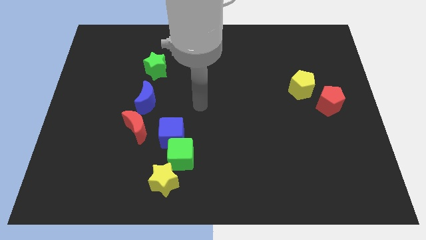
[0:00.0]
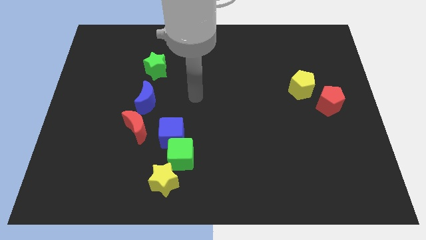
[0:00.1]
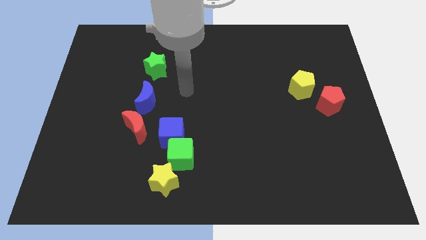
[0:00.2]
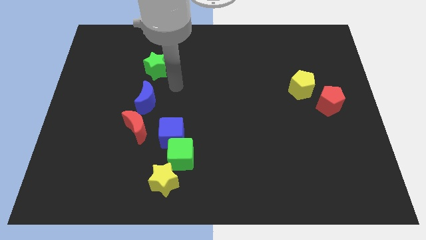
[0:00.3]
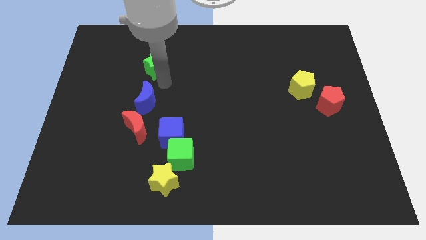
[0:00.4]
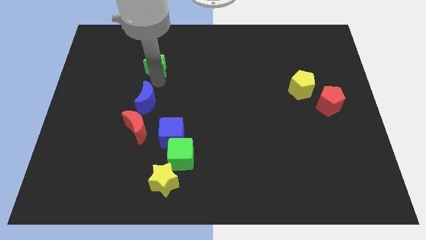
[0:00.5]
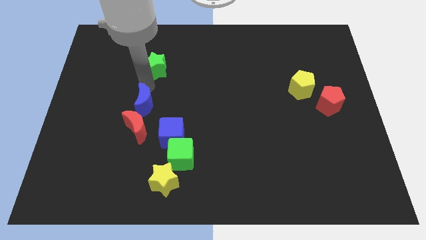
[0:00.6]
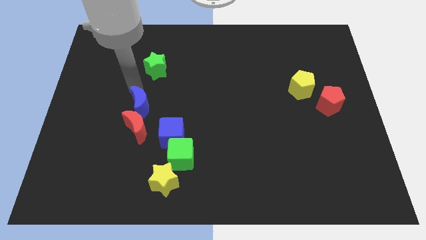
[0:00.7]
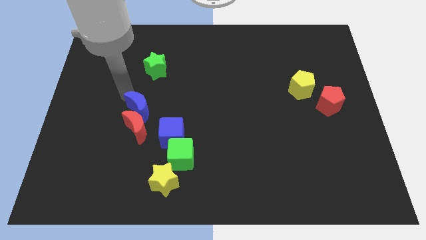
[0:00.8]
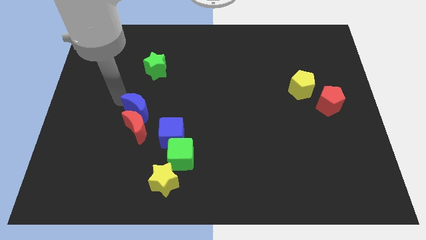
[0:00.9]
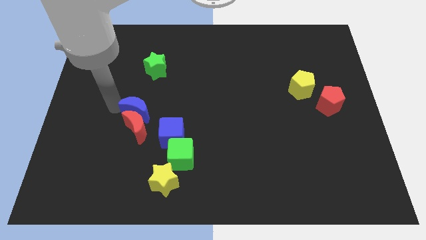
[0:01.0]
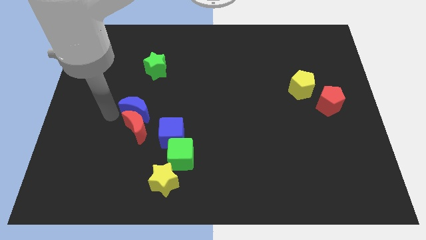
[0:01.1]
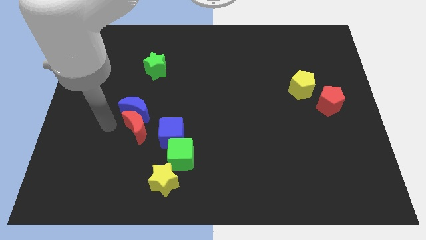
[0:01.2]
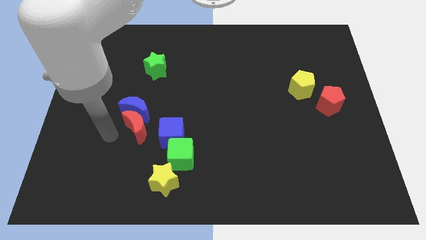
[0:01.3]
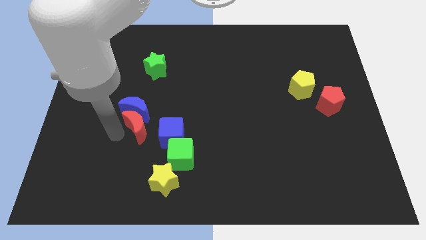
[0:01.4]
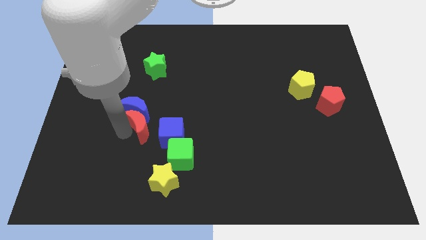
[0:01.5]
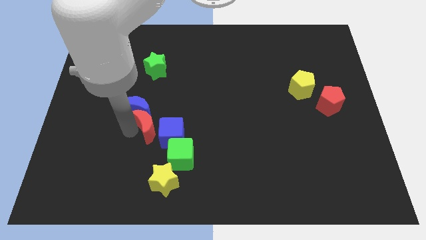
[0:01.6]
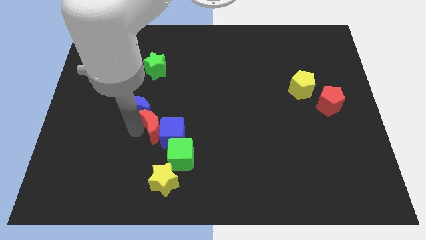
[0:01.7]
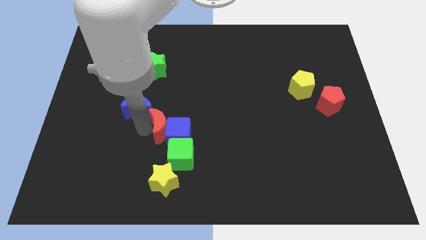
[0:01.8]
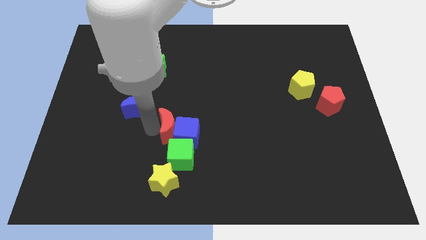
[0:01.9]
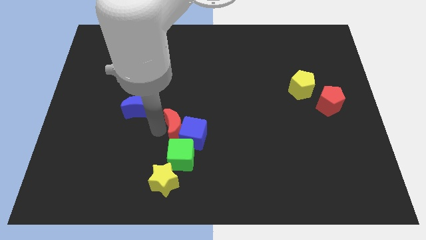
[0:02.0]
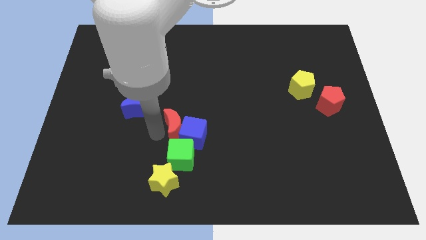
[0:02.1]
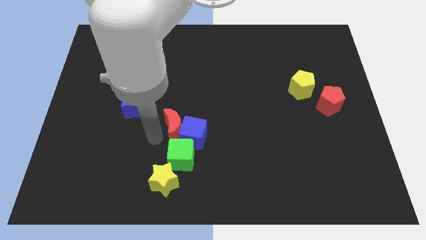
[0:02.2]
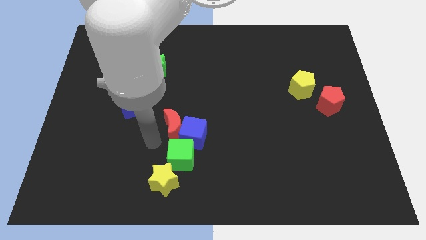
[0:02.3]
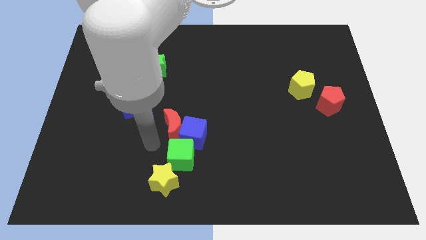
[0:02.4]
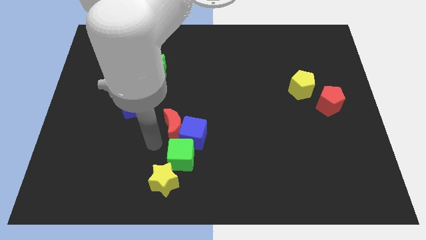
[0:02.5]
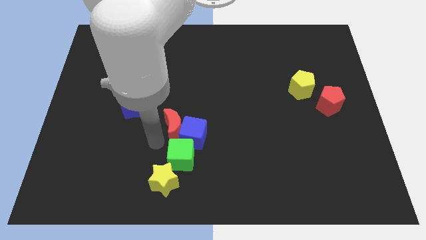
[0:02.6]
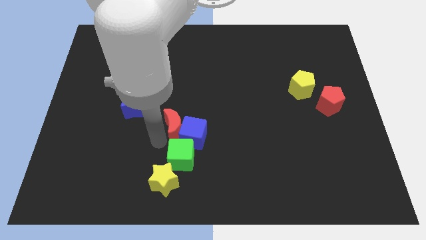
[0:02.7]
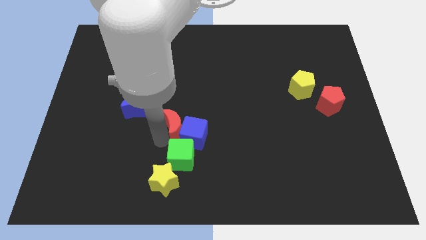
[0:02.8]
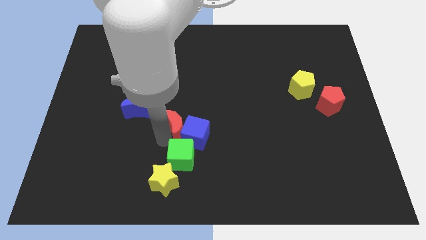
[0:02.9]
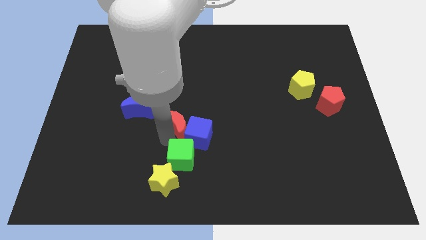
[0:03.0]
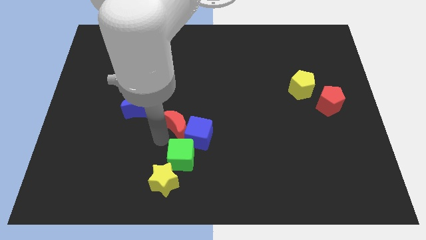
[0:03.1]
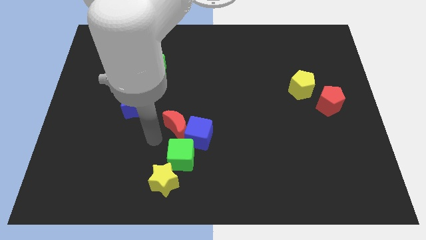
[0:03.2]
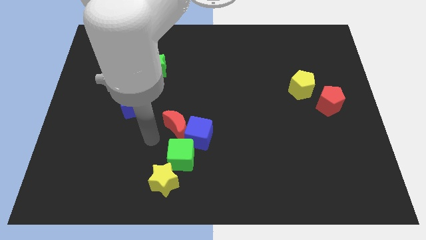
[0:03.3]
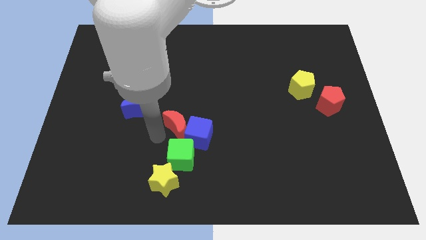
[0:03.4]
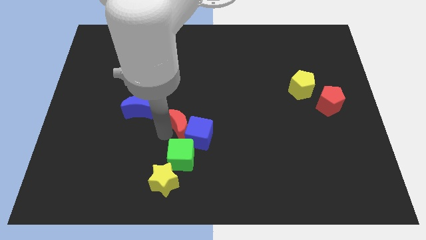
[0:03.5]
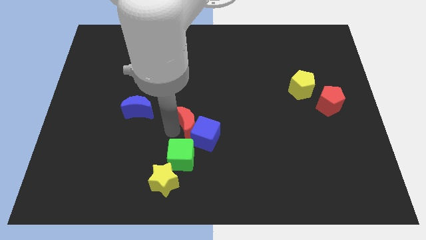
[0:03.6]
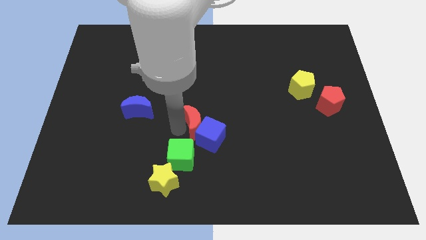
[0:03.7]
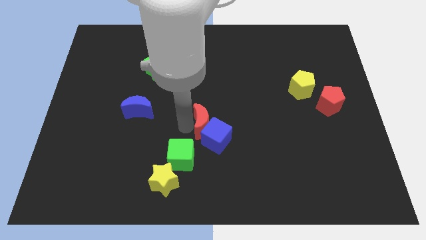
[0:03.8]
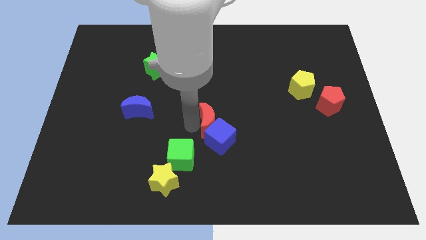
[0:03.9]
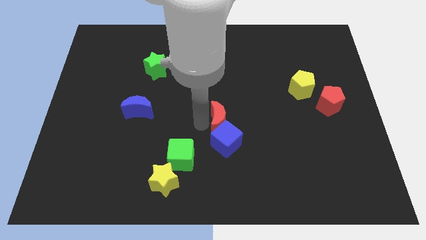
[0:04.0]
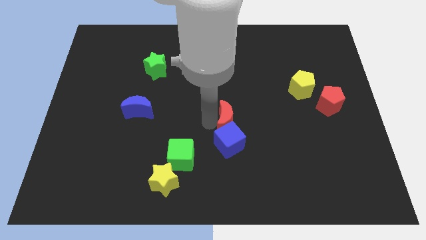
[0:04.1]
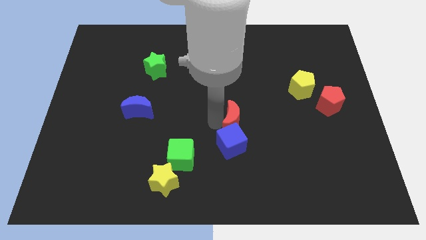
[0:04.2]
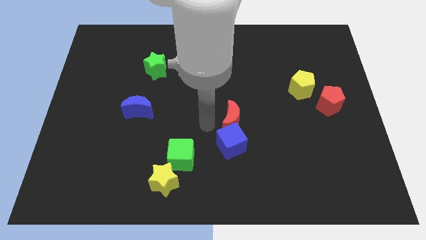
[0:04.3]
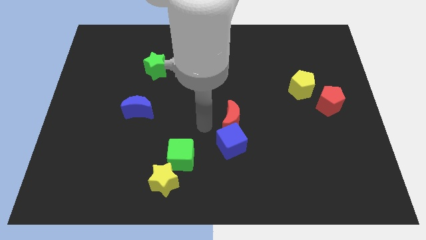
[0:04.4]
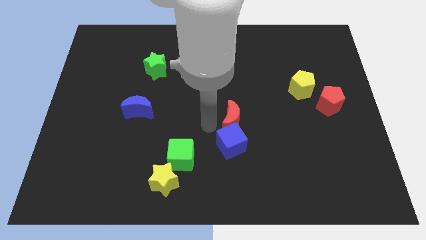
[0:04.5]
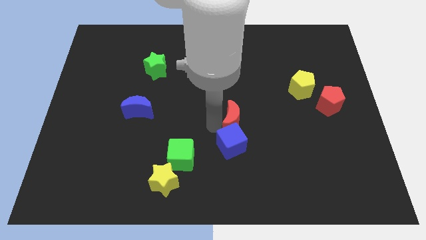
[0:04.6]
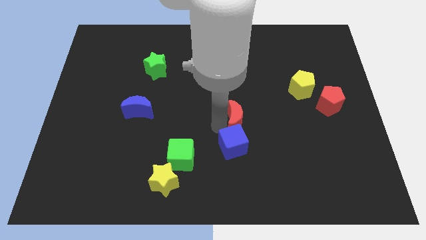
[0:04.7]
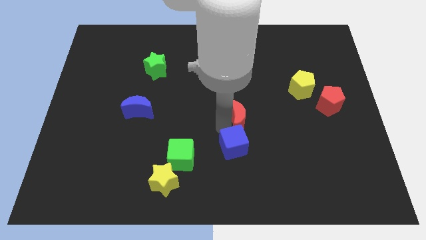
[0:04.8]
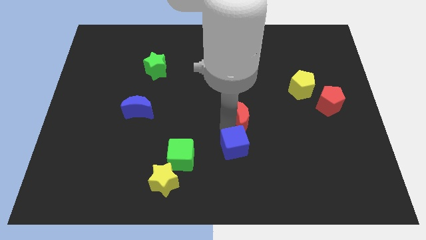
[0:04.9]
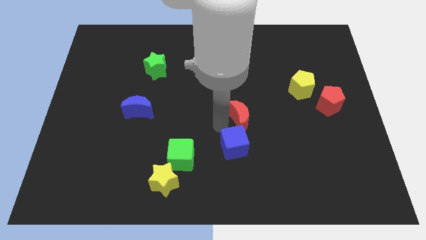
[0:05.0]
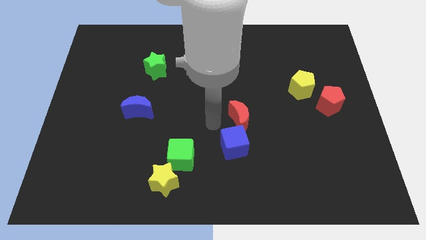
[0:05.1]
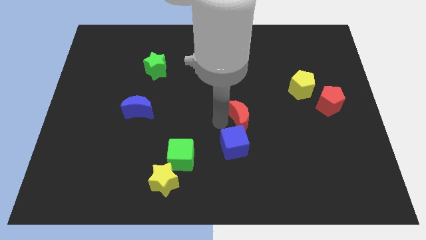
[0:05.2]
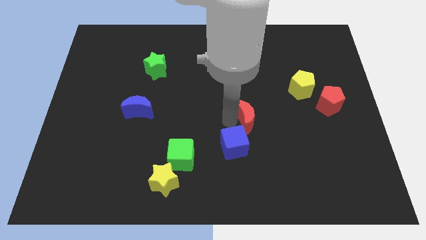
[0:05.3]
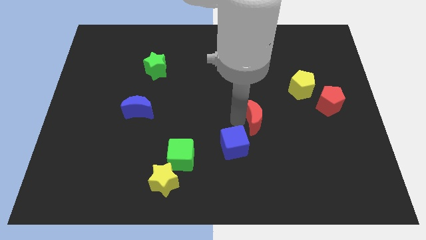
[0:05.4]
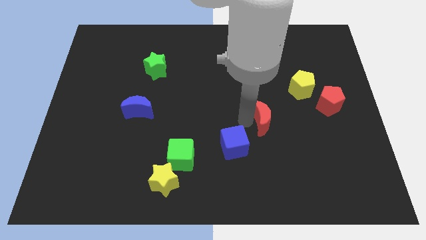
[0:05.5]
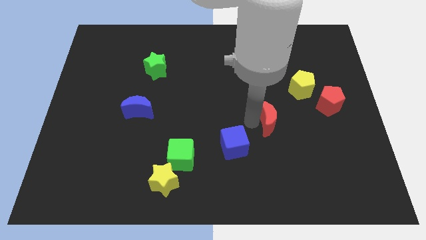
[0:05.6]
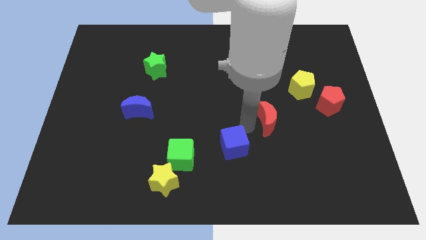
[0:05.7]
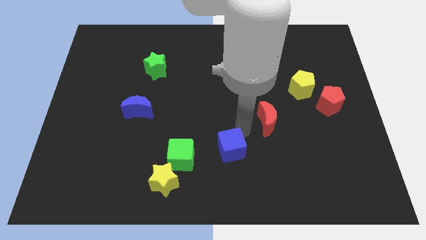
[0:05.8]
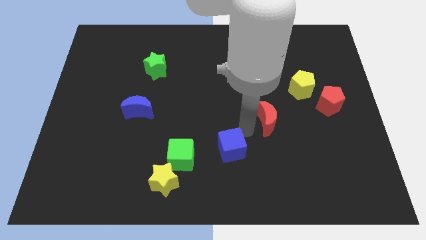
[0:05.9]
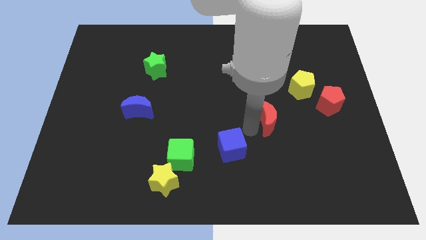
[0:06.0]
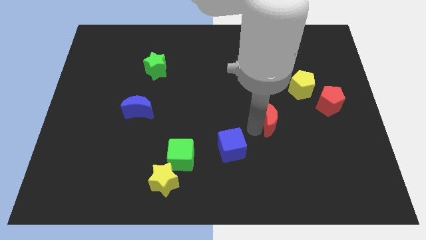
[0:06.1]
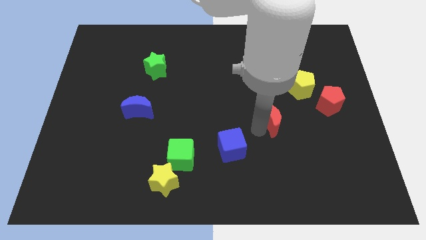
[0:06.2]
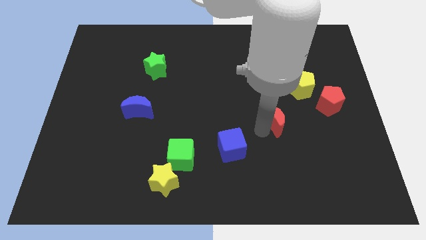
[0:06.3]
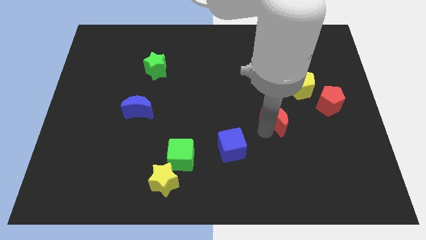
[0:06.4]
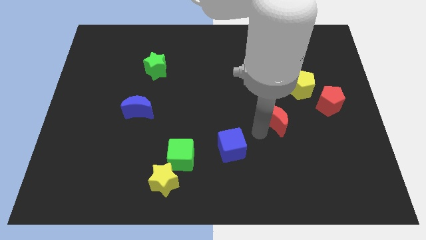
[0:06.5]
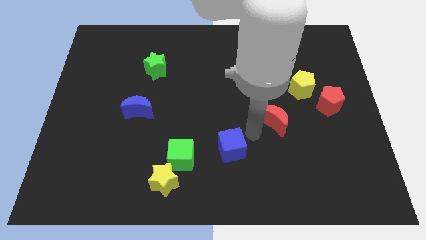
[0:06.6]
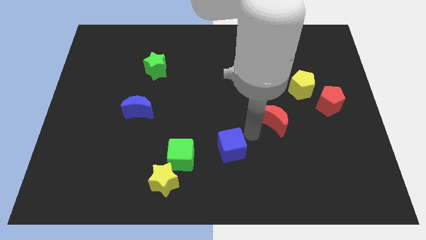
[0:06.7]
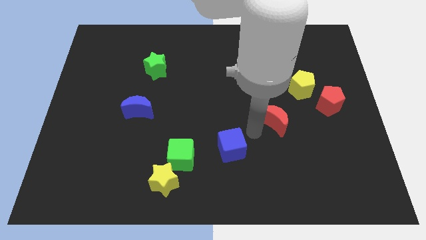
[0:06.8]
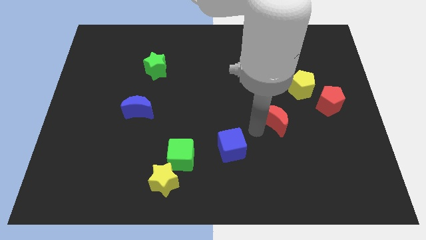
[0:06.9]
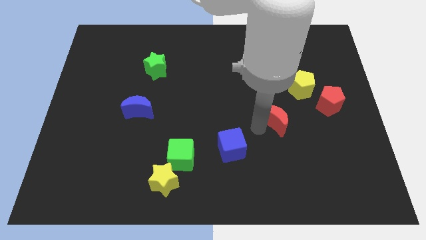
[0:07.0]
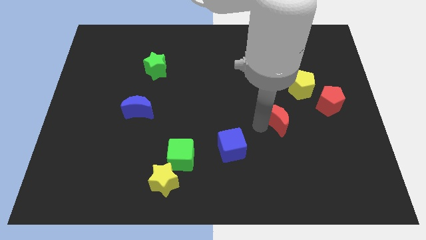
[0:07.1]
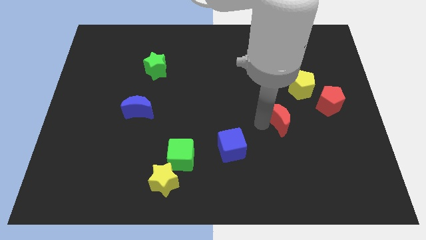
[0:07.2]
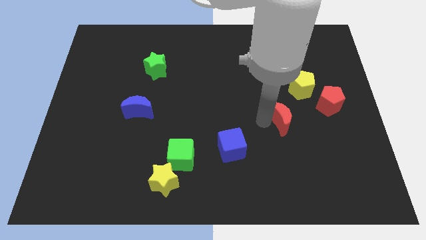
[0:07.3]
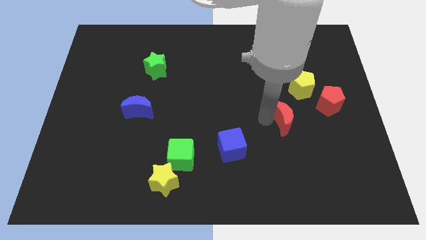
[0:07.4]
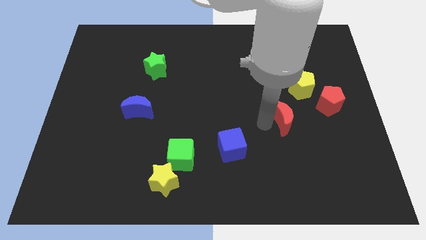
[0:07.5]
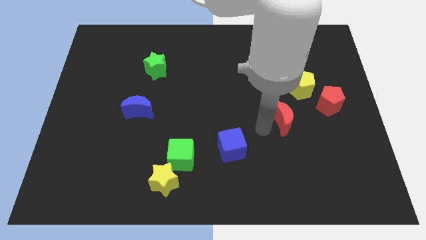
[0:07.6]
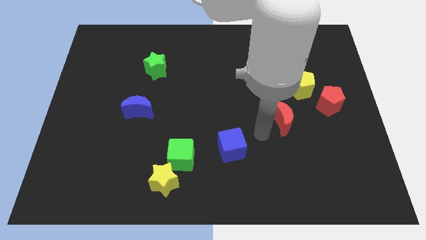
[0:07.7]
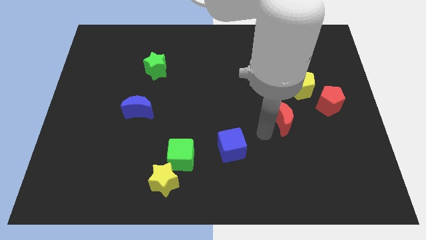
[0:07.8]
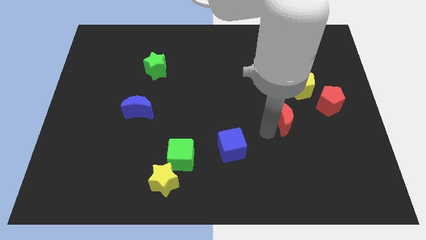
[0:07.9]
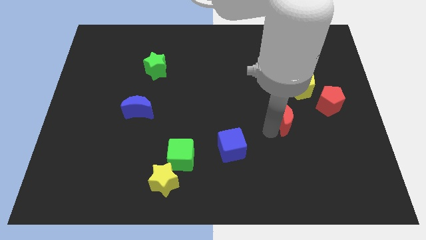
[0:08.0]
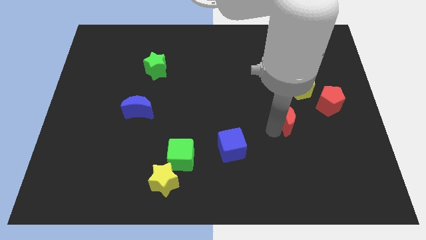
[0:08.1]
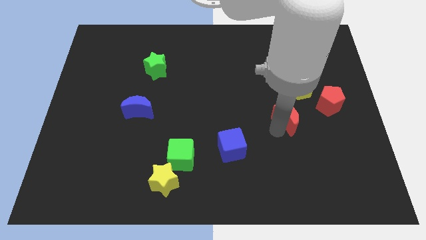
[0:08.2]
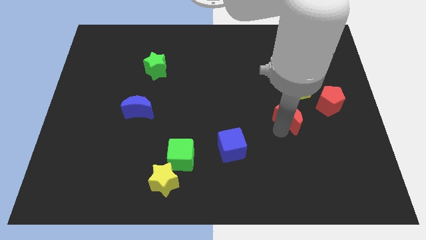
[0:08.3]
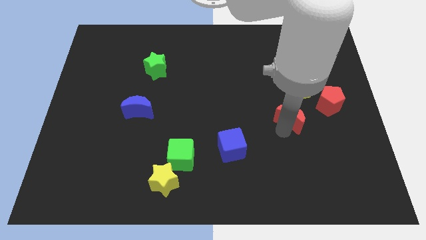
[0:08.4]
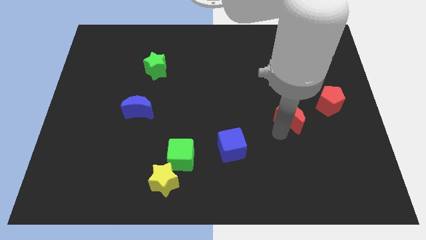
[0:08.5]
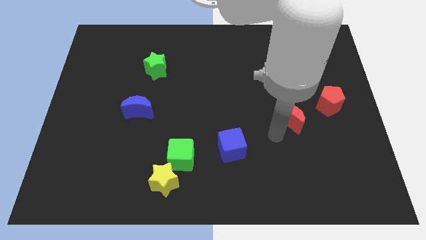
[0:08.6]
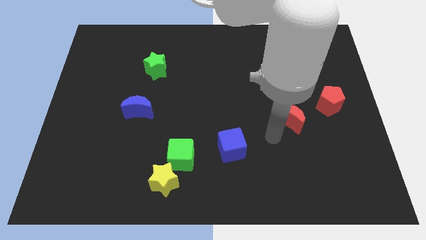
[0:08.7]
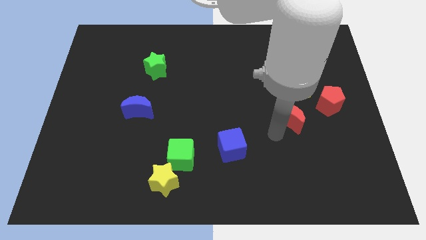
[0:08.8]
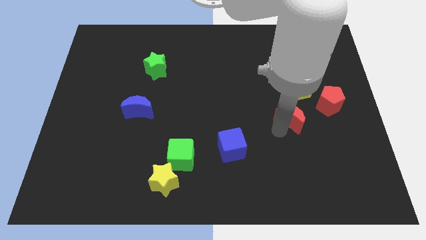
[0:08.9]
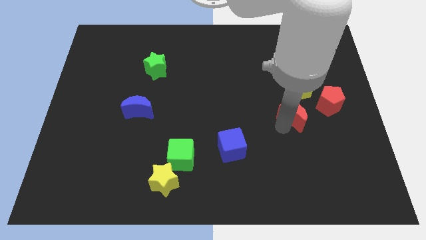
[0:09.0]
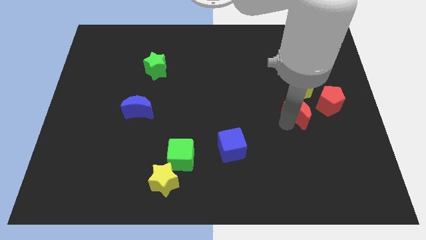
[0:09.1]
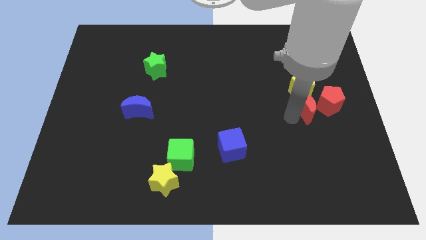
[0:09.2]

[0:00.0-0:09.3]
push the red moon next to the red pentagon
